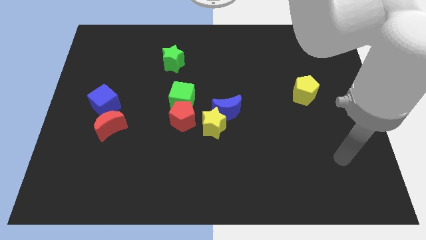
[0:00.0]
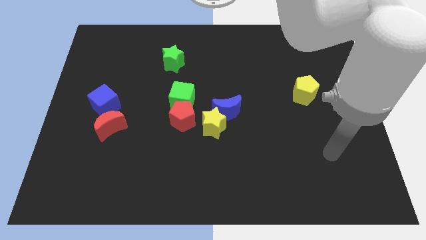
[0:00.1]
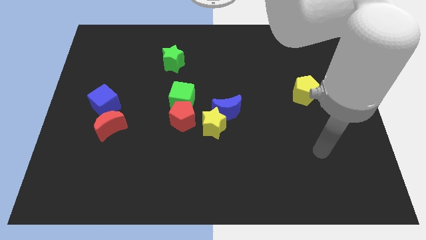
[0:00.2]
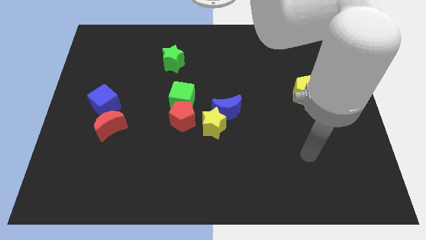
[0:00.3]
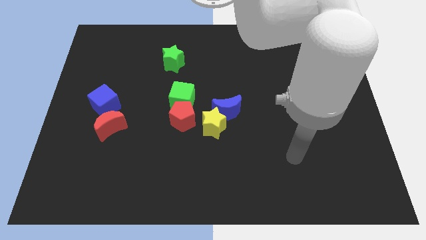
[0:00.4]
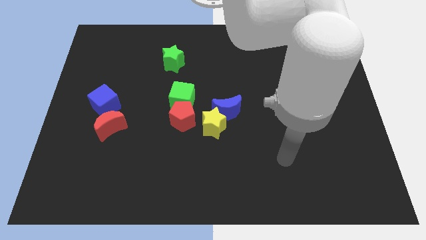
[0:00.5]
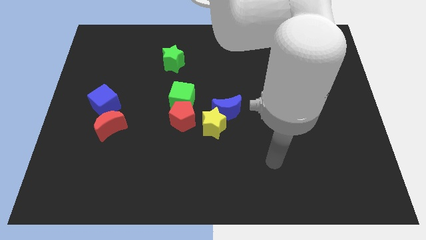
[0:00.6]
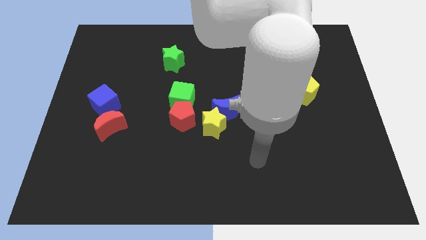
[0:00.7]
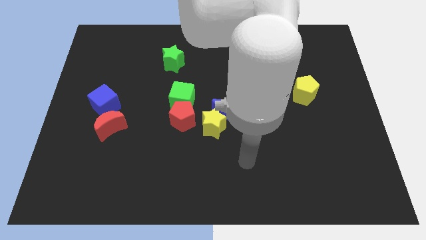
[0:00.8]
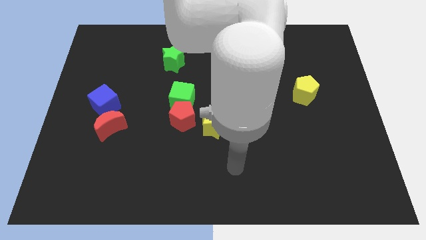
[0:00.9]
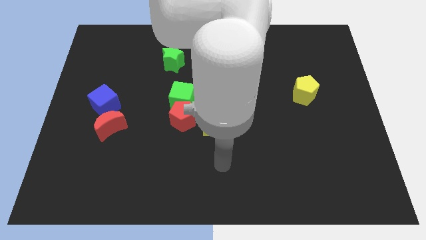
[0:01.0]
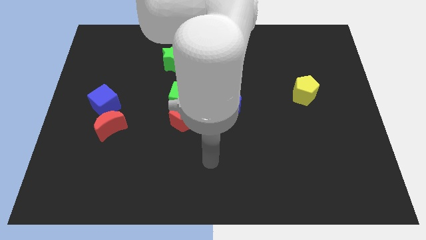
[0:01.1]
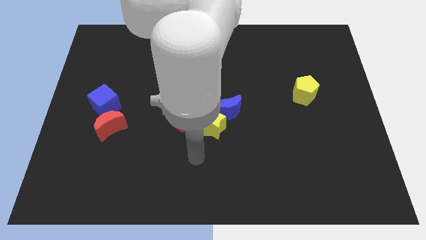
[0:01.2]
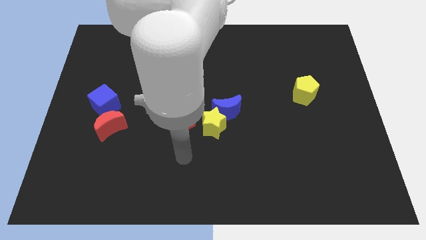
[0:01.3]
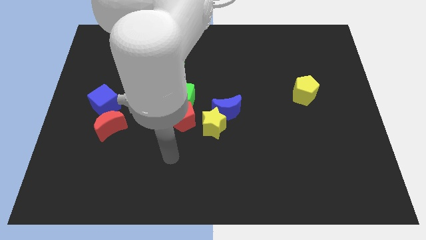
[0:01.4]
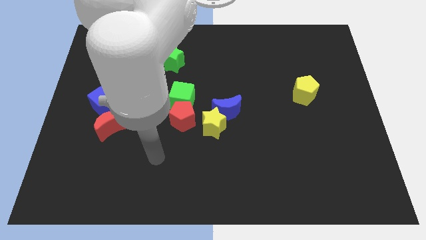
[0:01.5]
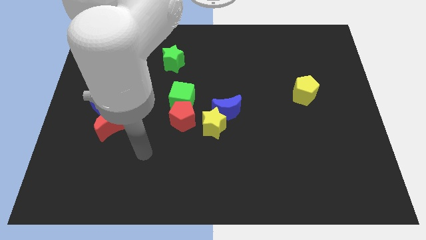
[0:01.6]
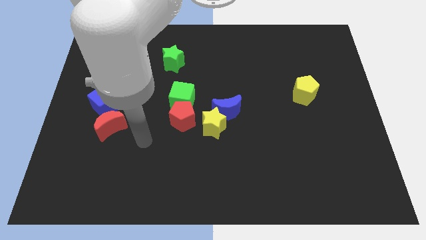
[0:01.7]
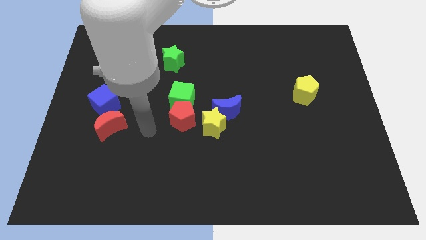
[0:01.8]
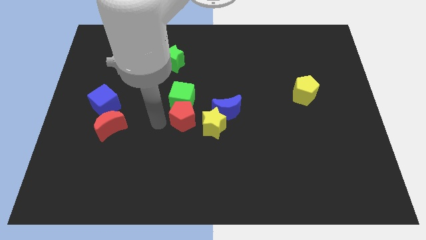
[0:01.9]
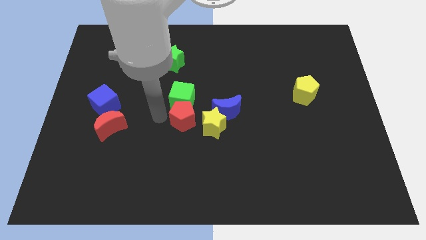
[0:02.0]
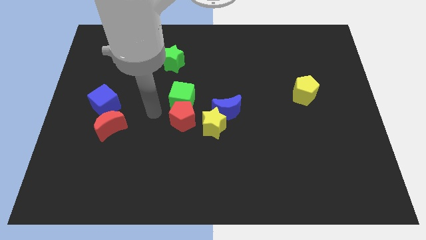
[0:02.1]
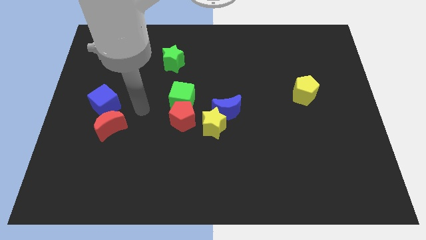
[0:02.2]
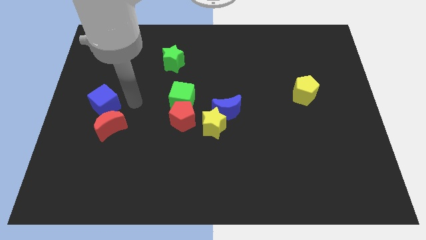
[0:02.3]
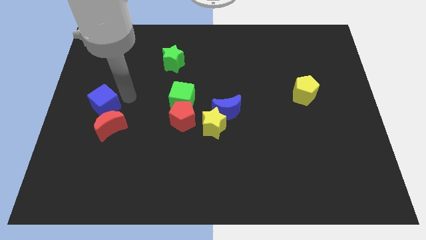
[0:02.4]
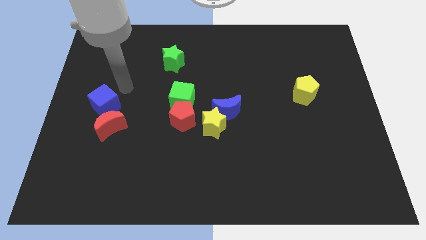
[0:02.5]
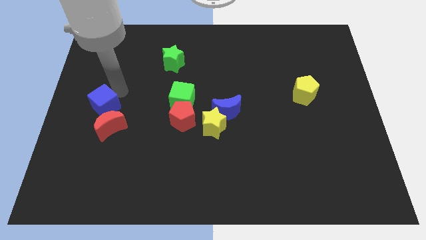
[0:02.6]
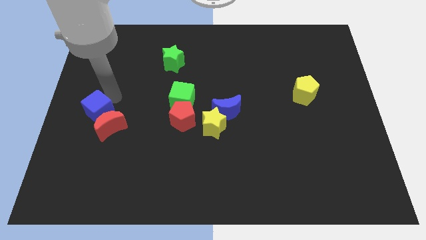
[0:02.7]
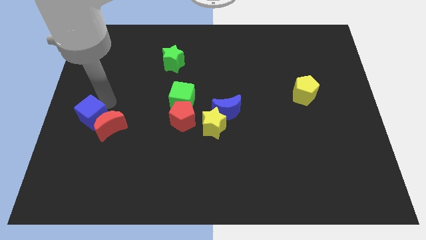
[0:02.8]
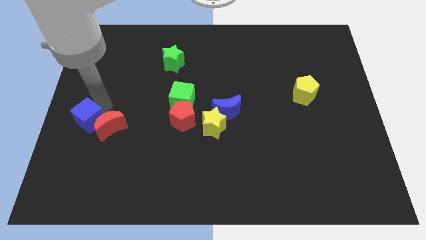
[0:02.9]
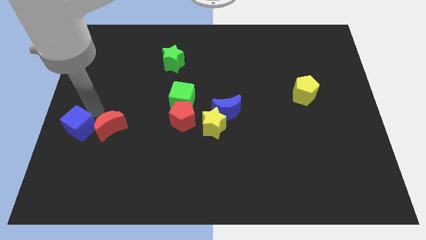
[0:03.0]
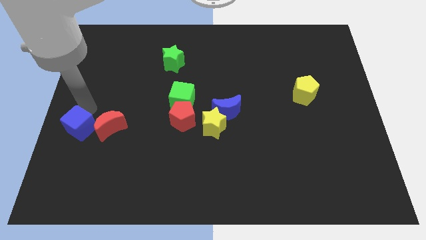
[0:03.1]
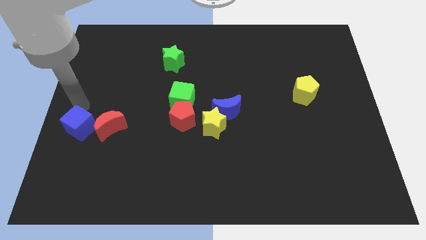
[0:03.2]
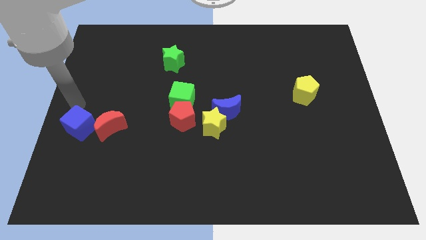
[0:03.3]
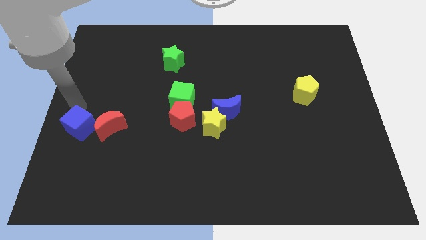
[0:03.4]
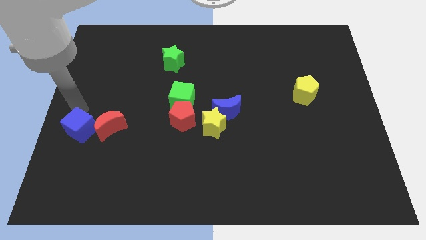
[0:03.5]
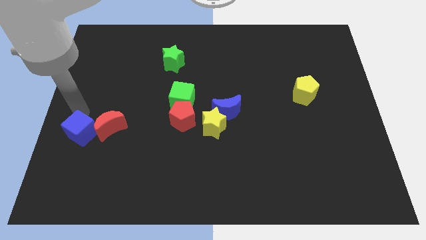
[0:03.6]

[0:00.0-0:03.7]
slightly move the blue cube down

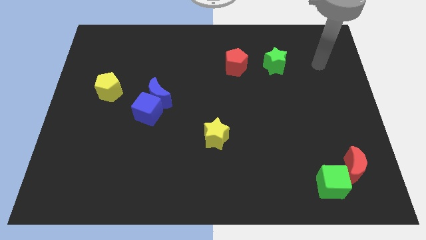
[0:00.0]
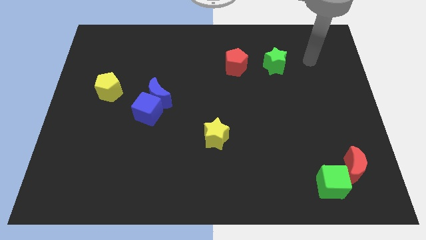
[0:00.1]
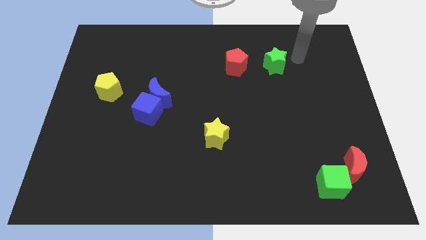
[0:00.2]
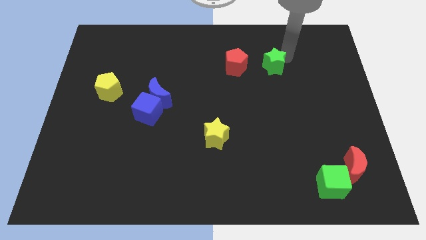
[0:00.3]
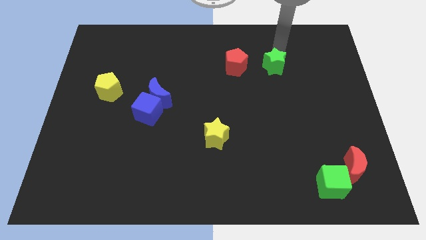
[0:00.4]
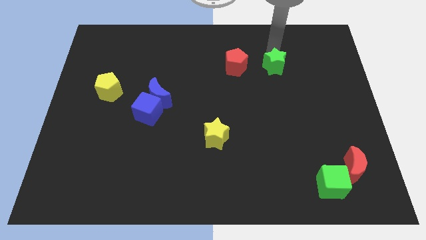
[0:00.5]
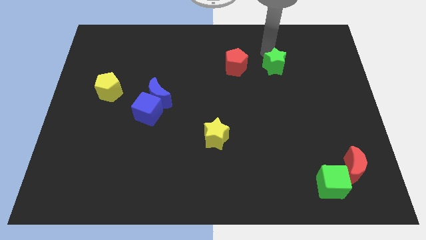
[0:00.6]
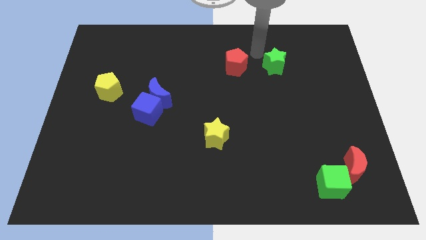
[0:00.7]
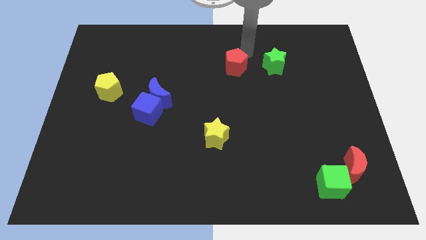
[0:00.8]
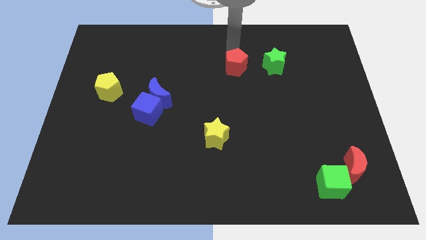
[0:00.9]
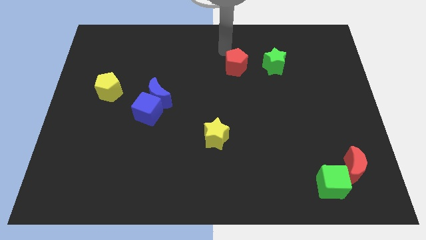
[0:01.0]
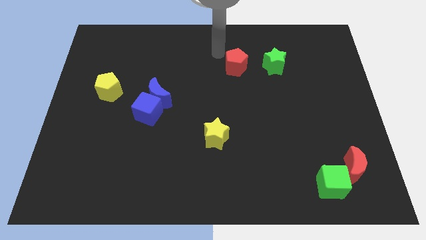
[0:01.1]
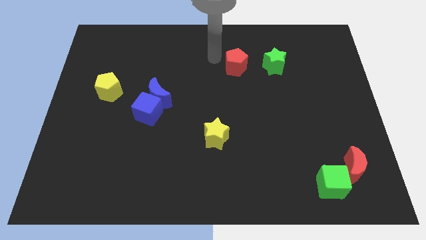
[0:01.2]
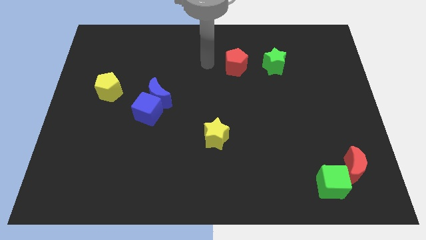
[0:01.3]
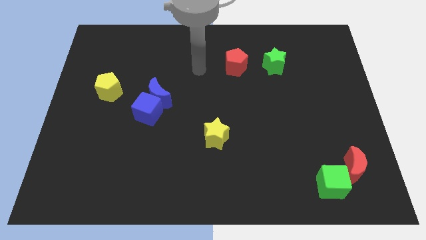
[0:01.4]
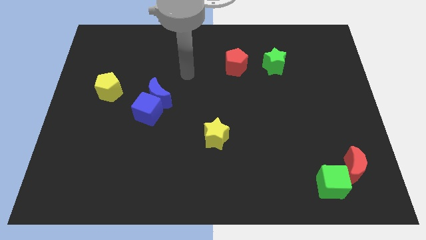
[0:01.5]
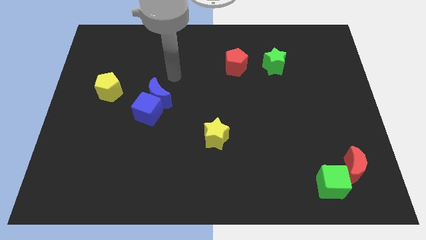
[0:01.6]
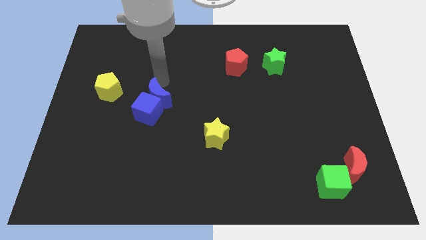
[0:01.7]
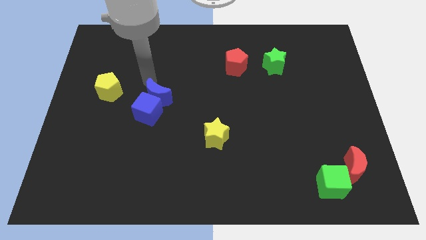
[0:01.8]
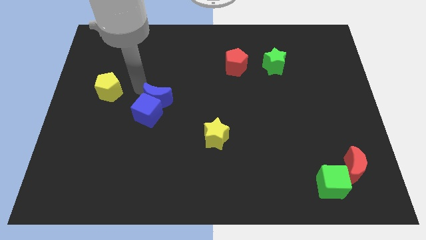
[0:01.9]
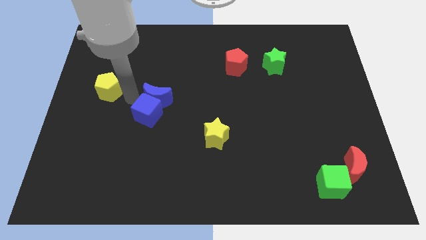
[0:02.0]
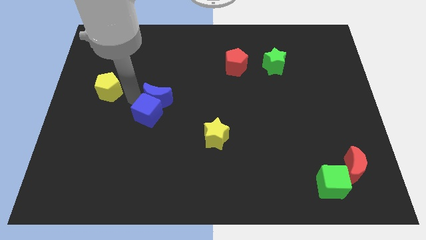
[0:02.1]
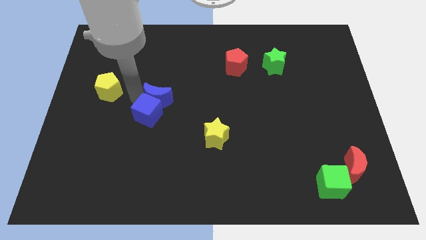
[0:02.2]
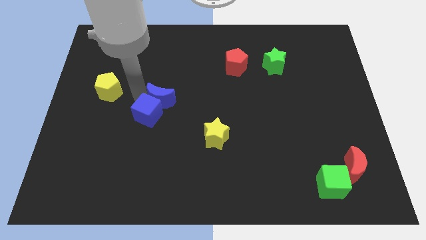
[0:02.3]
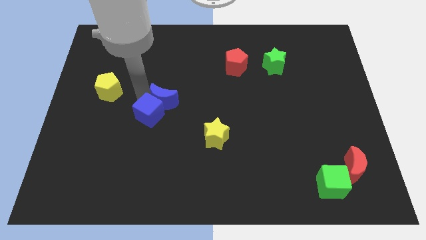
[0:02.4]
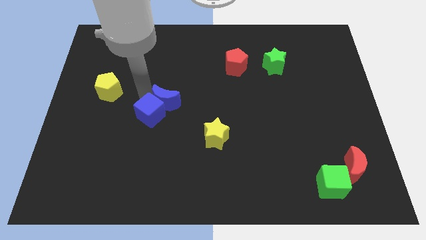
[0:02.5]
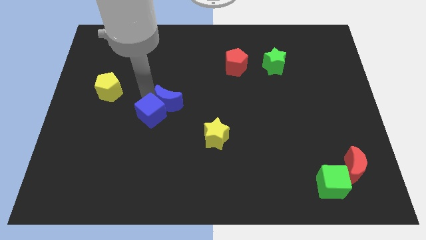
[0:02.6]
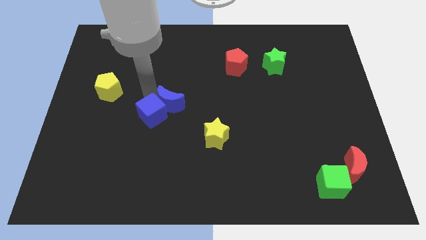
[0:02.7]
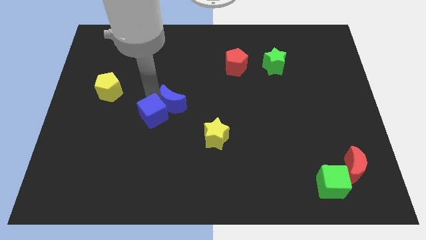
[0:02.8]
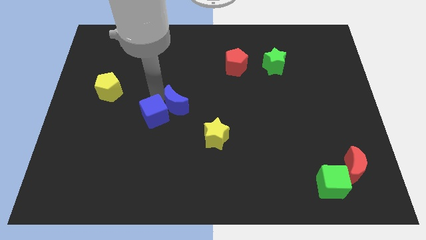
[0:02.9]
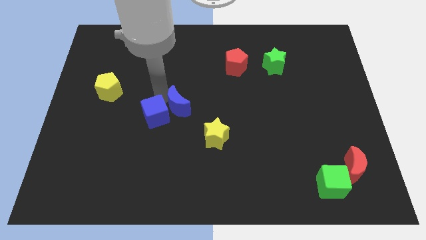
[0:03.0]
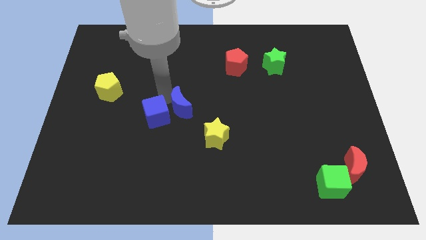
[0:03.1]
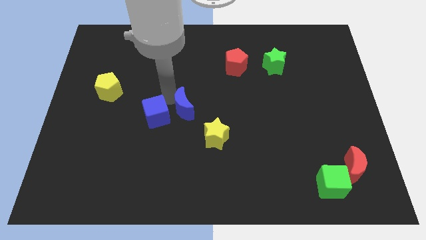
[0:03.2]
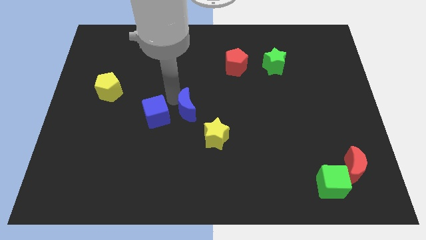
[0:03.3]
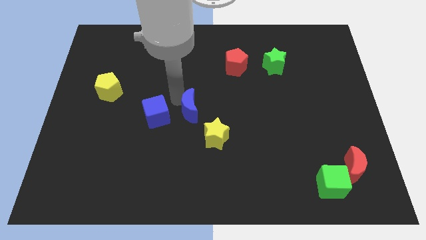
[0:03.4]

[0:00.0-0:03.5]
move the blue moon a little bit right

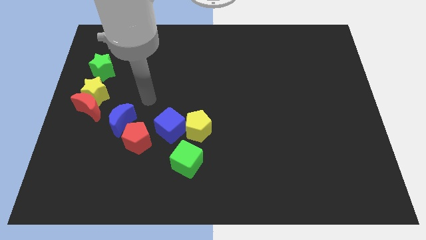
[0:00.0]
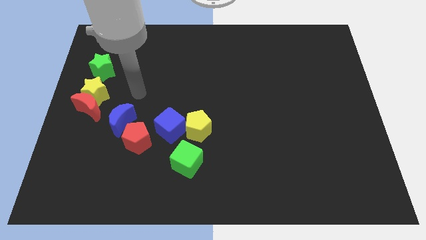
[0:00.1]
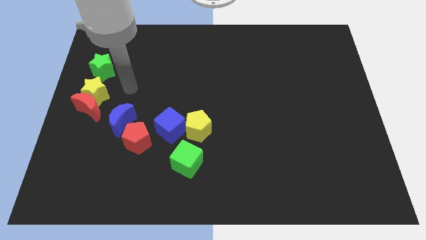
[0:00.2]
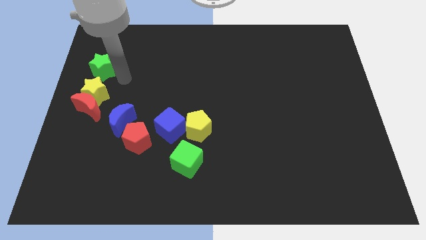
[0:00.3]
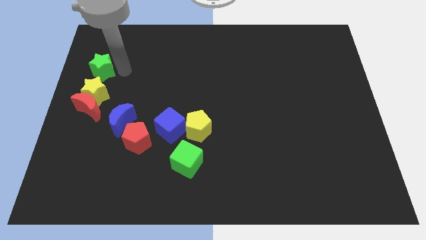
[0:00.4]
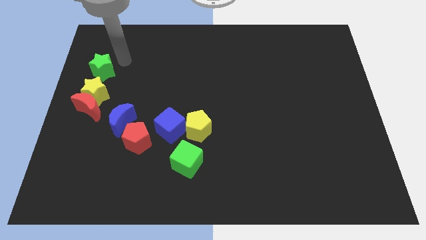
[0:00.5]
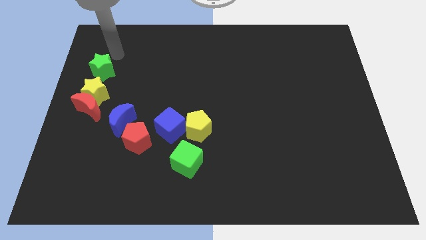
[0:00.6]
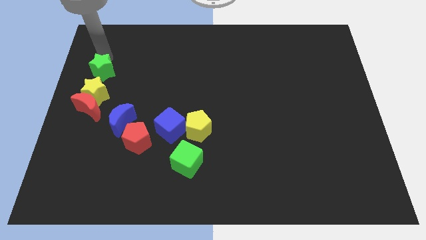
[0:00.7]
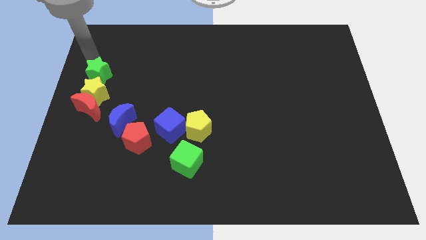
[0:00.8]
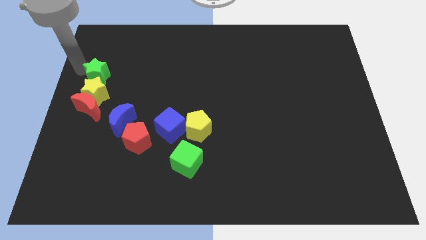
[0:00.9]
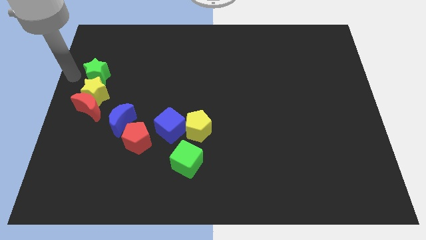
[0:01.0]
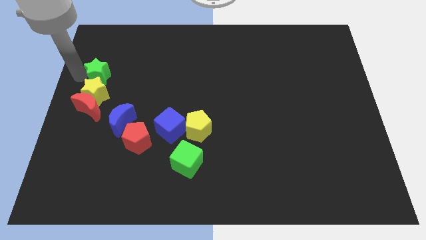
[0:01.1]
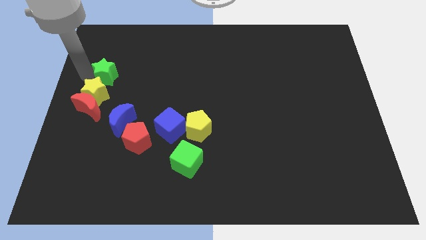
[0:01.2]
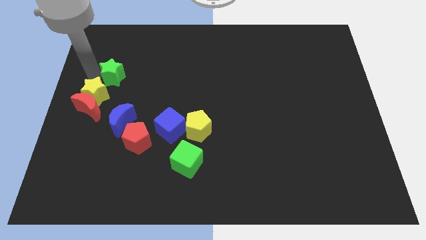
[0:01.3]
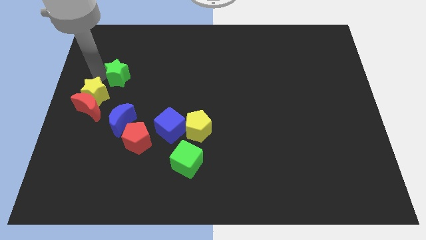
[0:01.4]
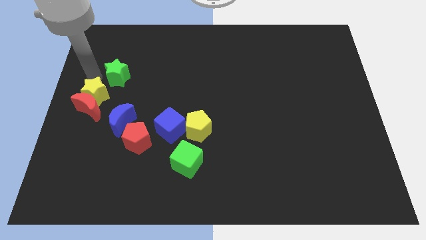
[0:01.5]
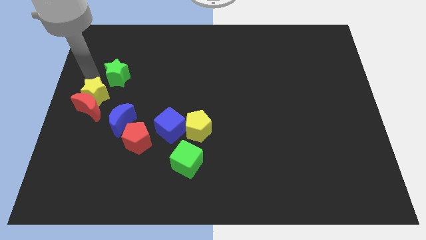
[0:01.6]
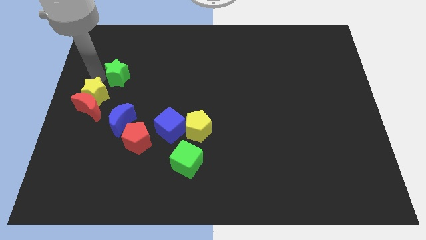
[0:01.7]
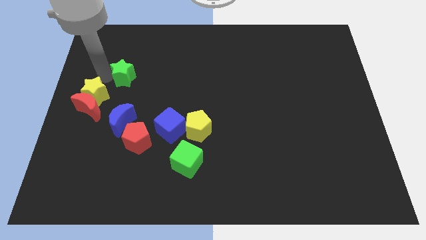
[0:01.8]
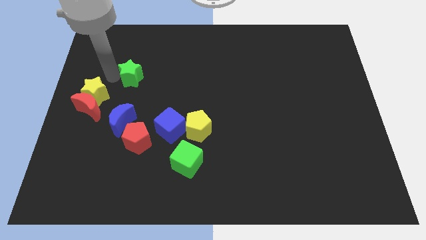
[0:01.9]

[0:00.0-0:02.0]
slightly move the green star to the right
